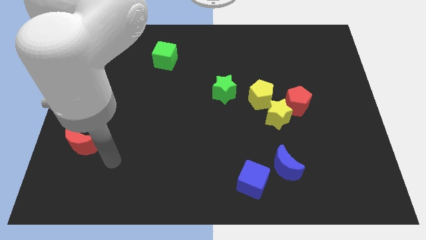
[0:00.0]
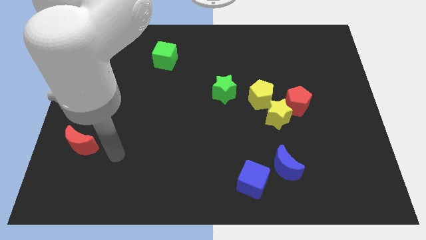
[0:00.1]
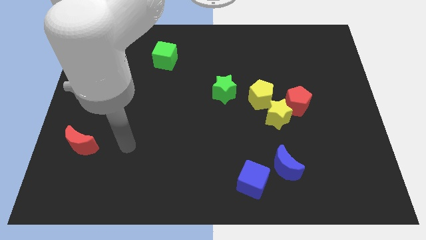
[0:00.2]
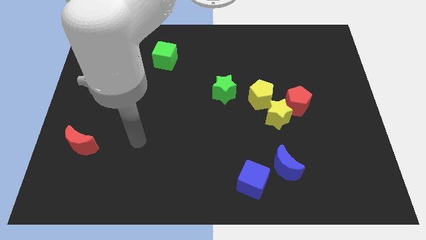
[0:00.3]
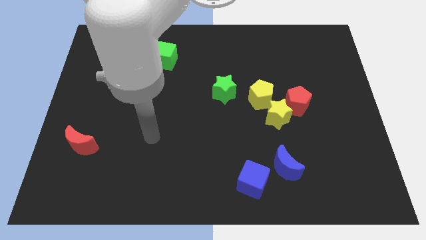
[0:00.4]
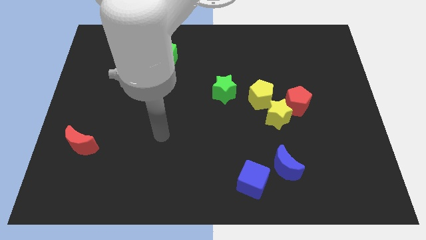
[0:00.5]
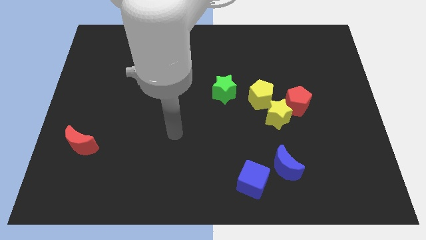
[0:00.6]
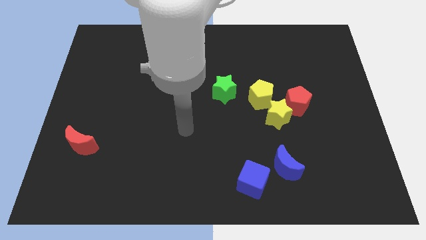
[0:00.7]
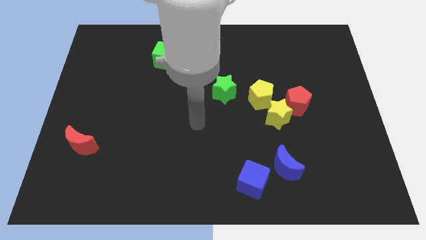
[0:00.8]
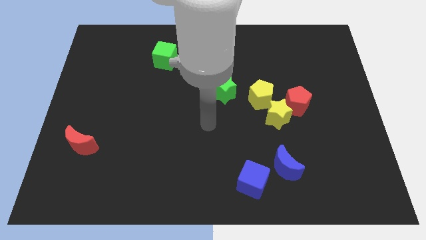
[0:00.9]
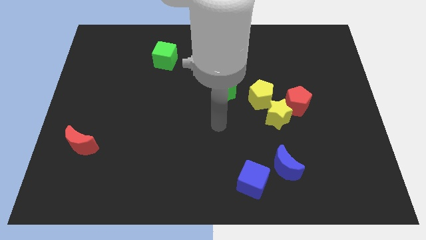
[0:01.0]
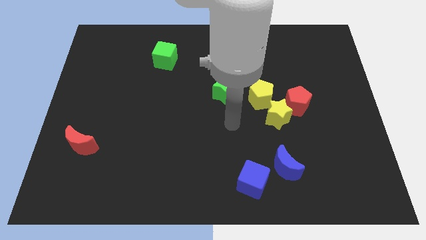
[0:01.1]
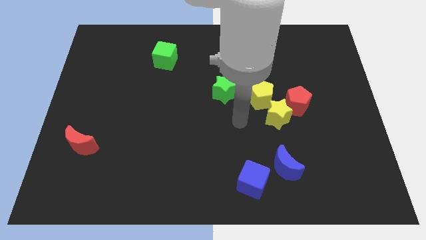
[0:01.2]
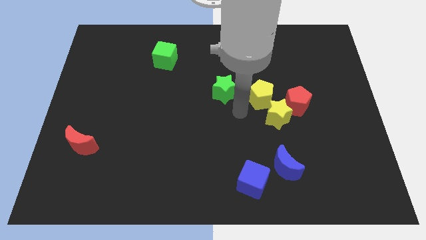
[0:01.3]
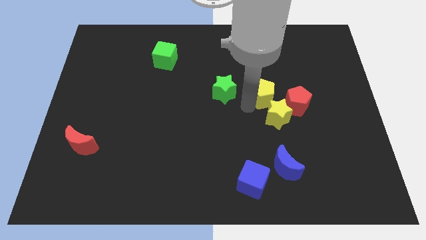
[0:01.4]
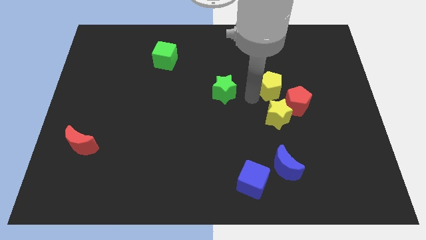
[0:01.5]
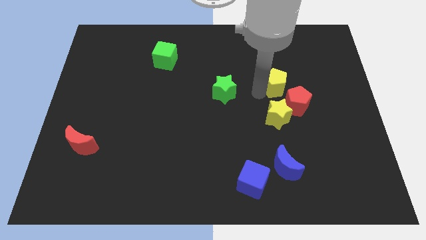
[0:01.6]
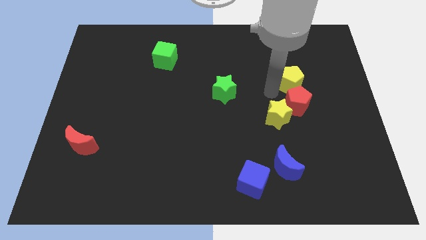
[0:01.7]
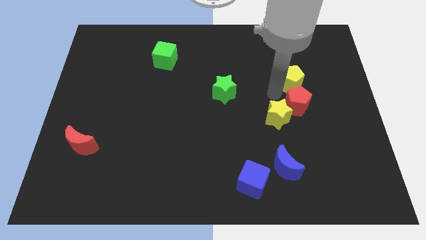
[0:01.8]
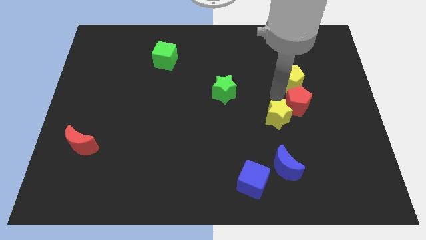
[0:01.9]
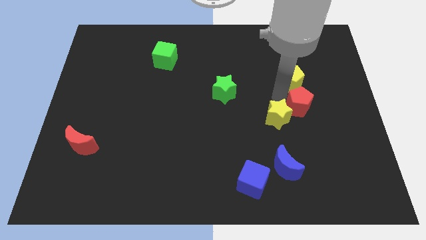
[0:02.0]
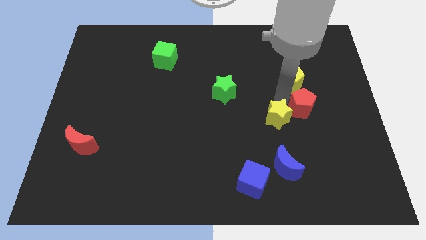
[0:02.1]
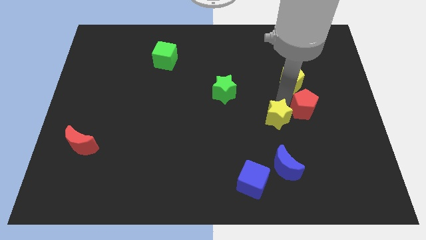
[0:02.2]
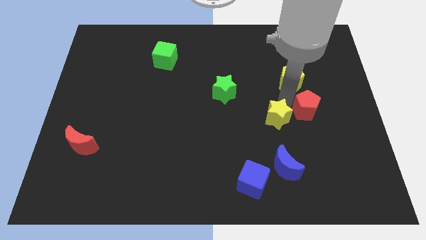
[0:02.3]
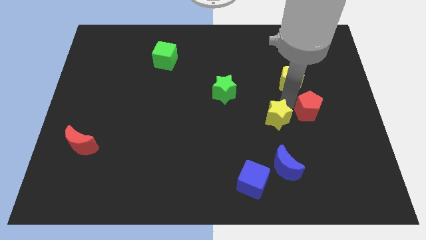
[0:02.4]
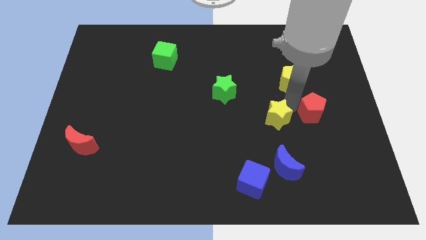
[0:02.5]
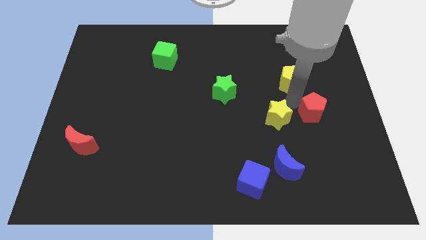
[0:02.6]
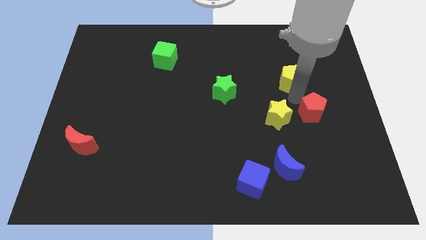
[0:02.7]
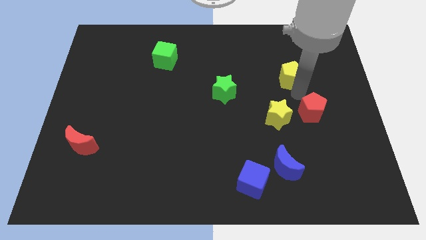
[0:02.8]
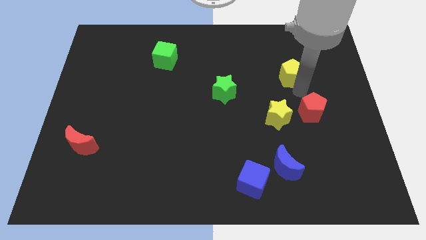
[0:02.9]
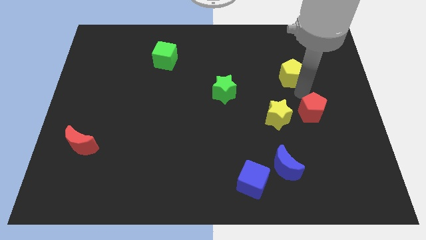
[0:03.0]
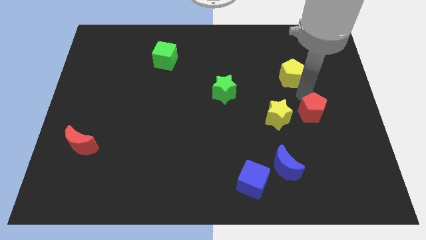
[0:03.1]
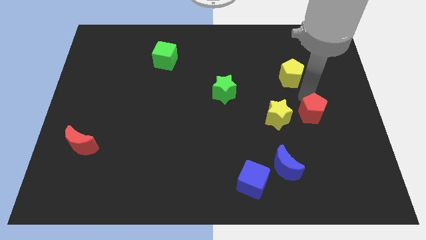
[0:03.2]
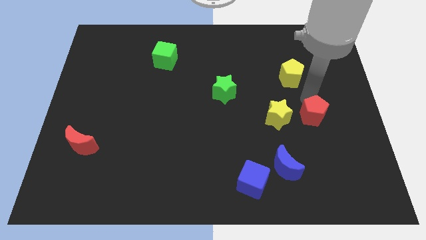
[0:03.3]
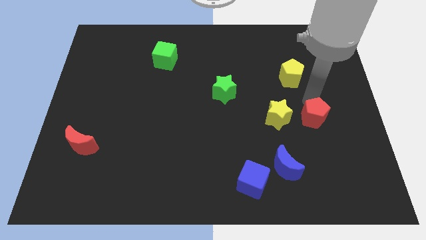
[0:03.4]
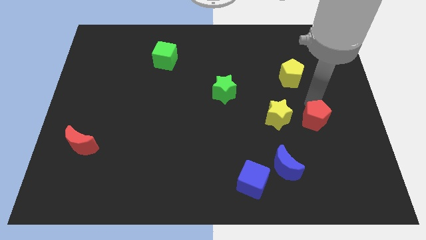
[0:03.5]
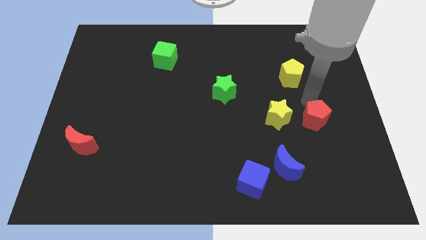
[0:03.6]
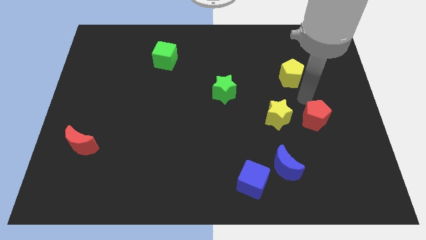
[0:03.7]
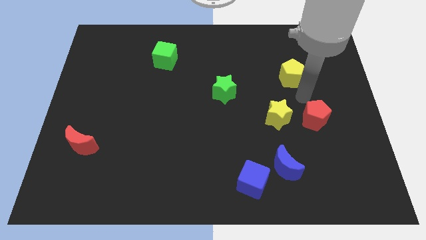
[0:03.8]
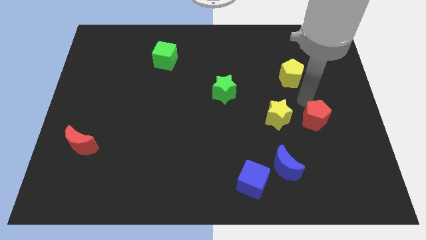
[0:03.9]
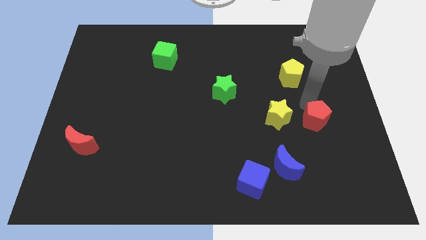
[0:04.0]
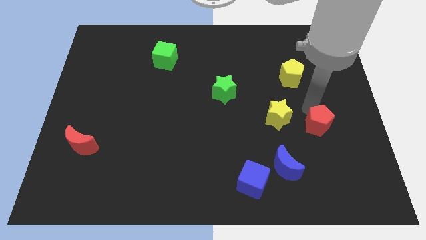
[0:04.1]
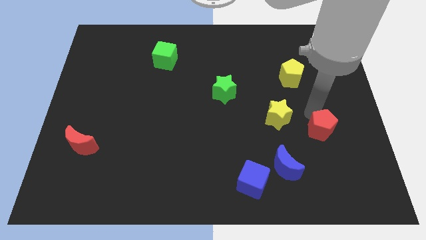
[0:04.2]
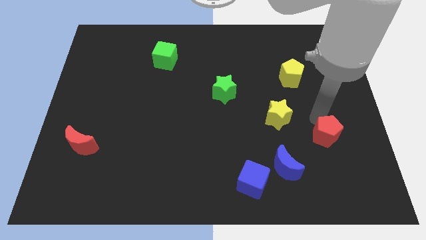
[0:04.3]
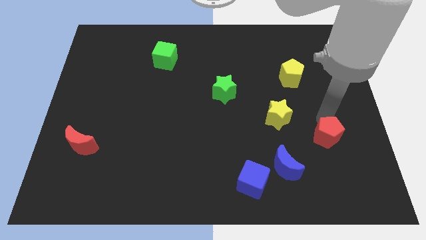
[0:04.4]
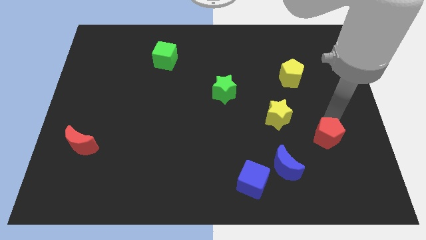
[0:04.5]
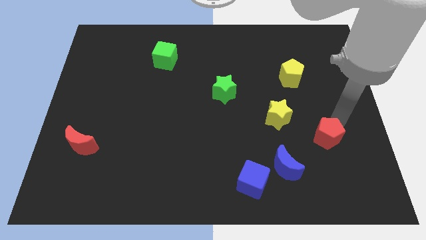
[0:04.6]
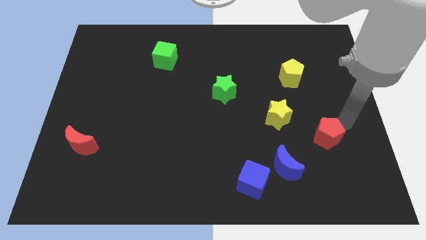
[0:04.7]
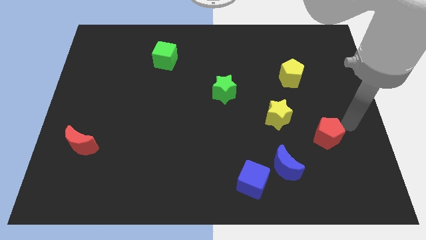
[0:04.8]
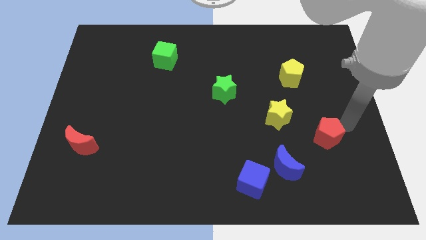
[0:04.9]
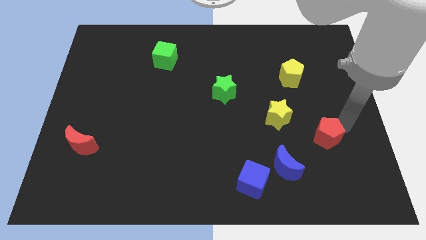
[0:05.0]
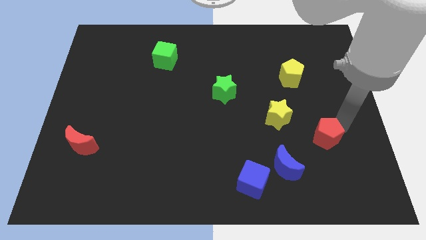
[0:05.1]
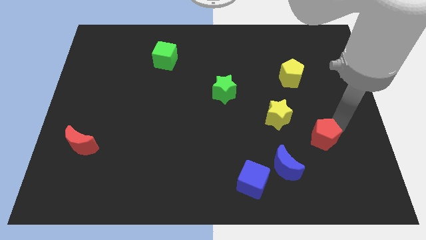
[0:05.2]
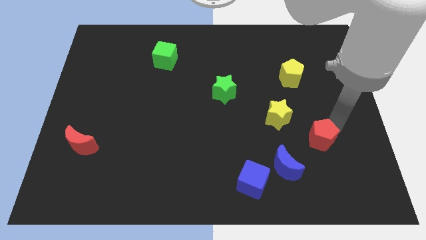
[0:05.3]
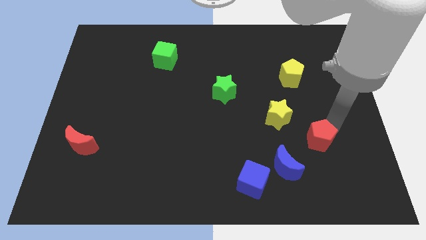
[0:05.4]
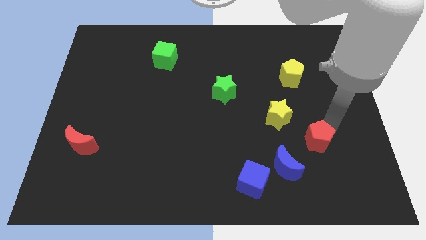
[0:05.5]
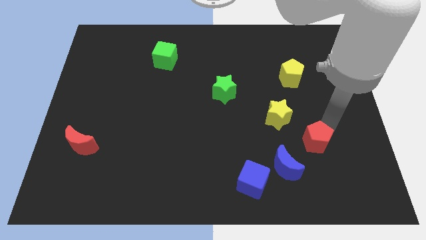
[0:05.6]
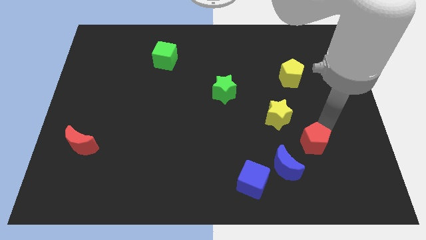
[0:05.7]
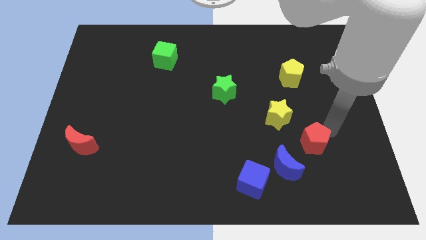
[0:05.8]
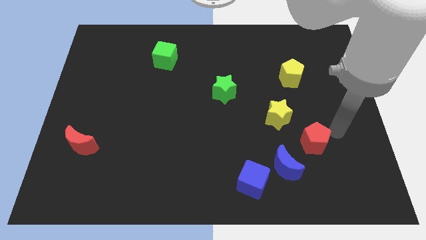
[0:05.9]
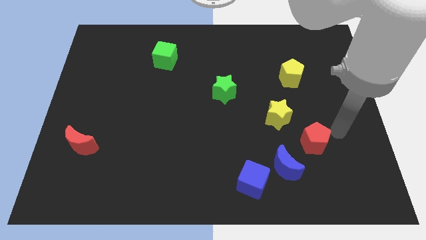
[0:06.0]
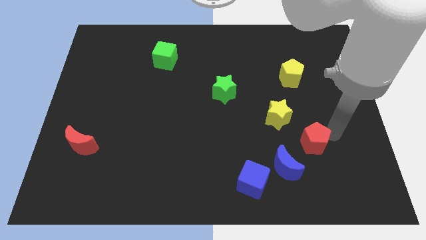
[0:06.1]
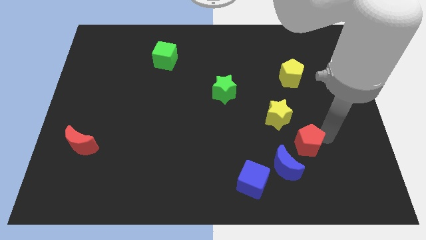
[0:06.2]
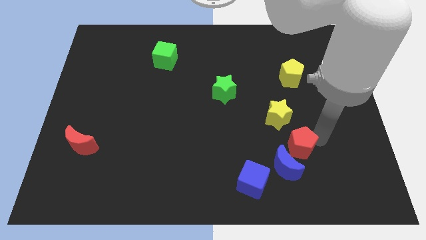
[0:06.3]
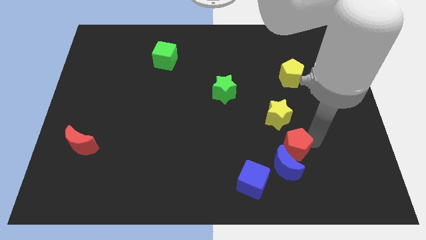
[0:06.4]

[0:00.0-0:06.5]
slightly push the red pentagon down and then to the left

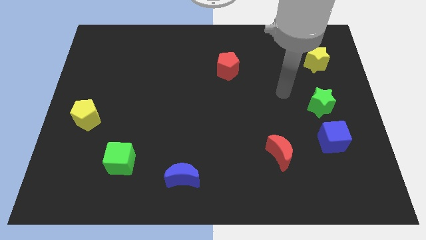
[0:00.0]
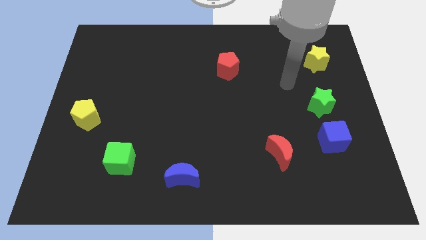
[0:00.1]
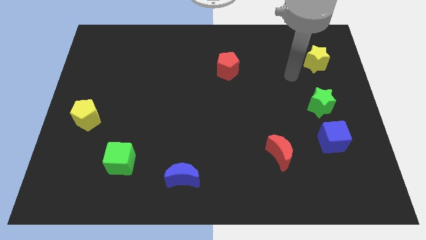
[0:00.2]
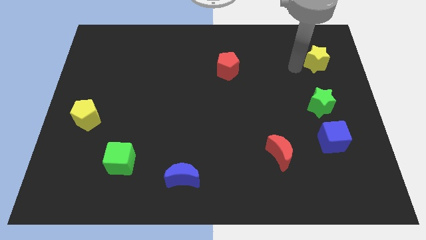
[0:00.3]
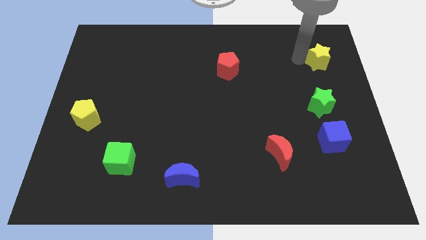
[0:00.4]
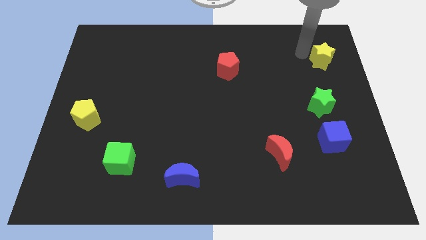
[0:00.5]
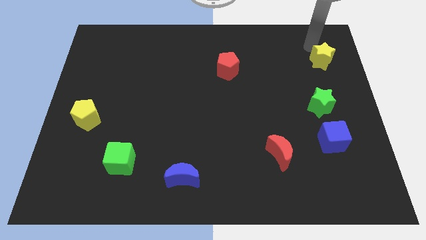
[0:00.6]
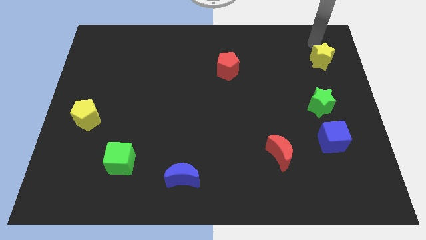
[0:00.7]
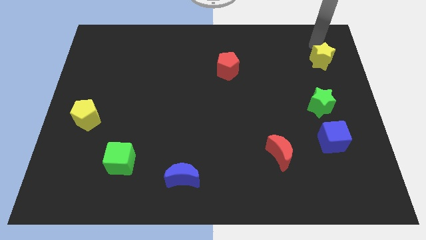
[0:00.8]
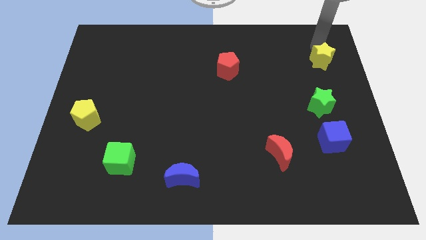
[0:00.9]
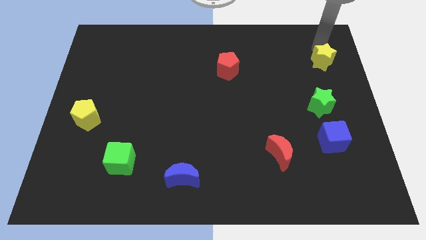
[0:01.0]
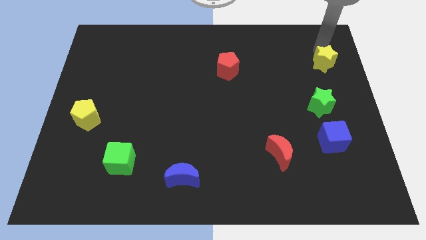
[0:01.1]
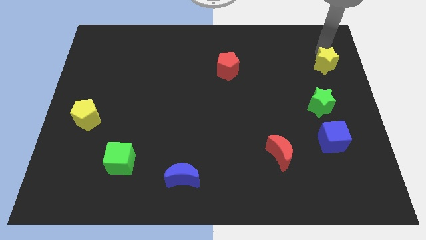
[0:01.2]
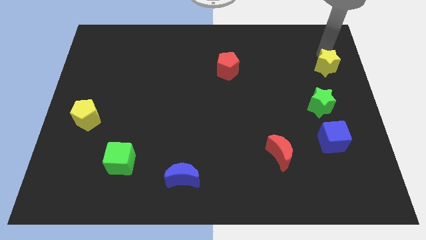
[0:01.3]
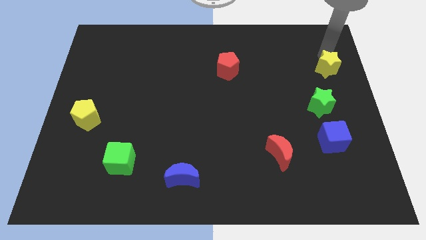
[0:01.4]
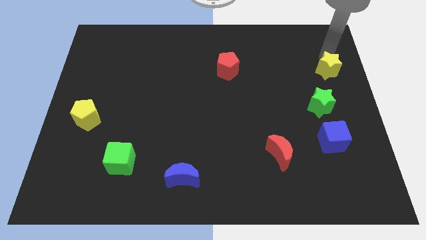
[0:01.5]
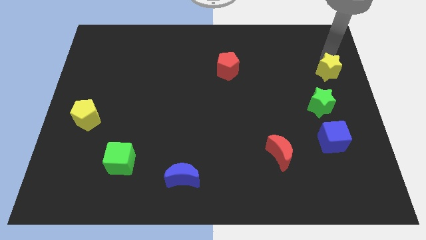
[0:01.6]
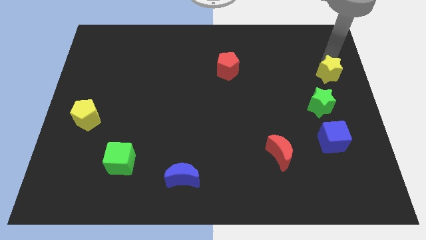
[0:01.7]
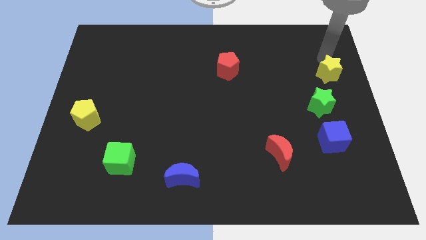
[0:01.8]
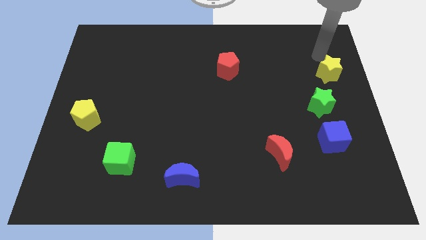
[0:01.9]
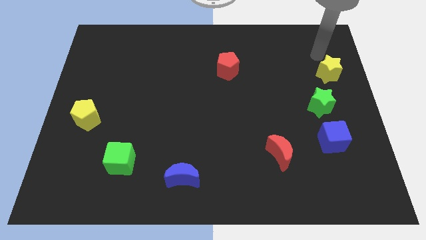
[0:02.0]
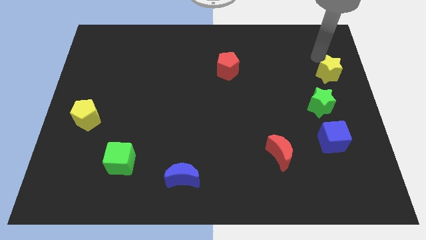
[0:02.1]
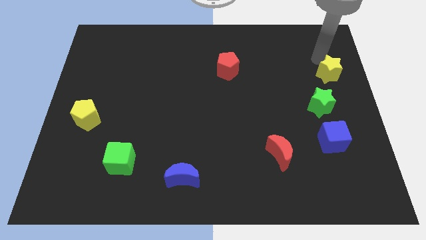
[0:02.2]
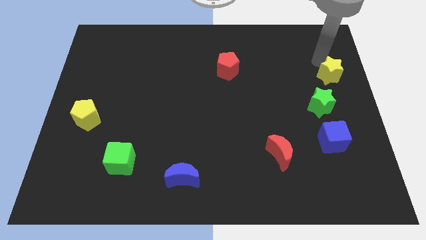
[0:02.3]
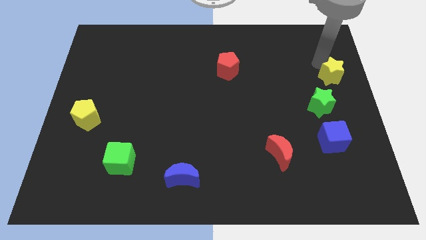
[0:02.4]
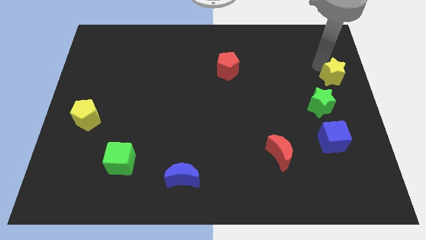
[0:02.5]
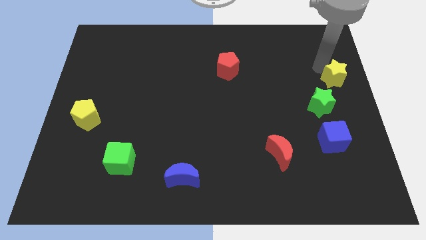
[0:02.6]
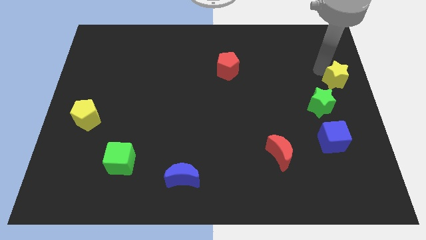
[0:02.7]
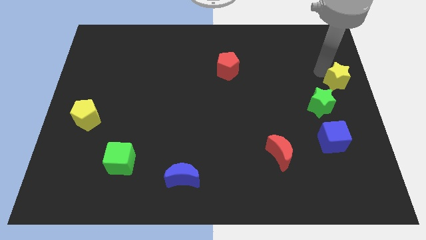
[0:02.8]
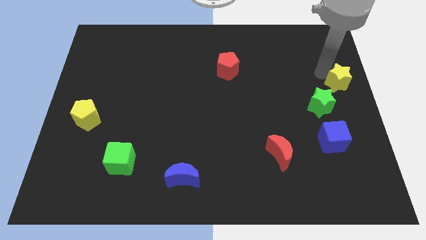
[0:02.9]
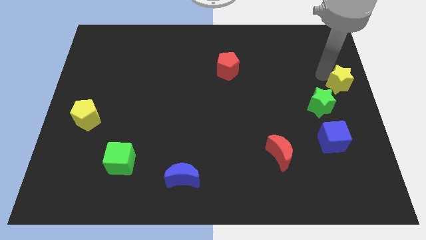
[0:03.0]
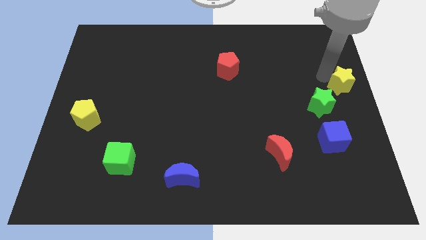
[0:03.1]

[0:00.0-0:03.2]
slightly slide the yellow star downwards
